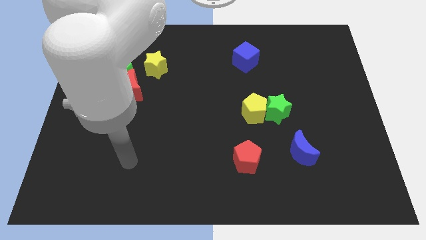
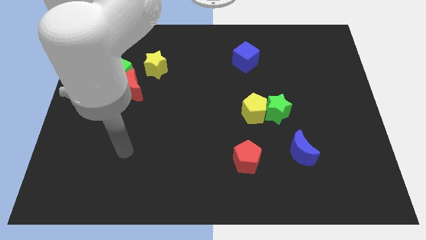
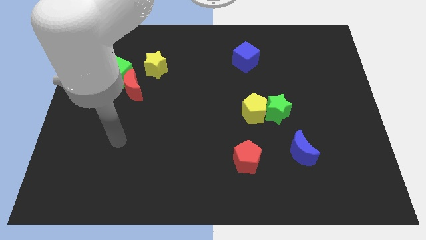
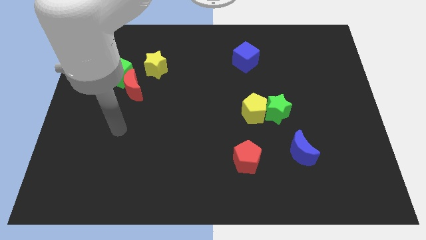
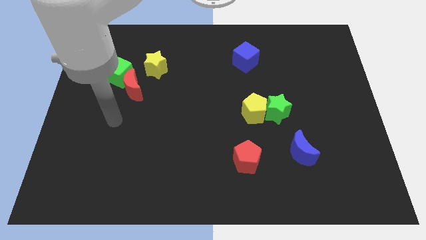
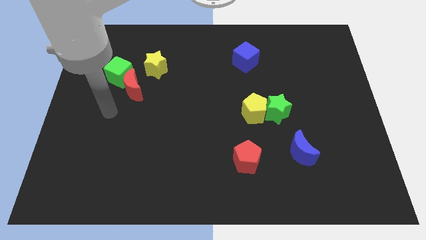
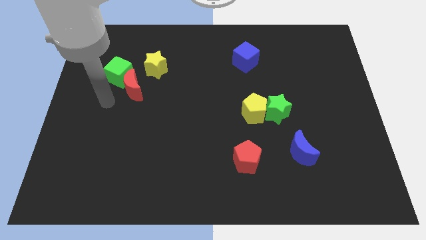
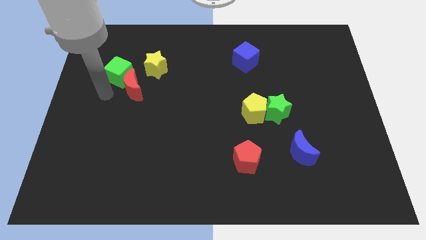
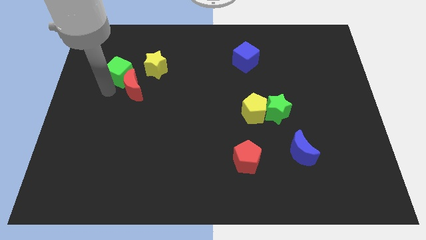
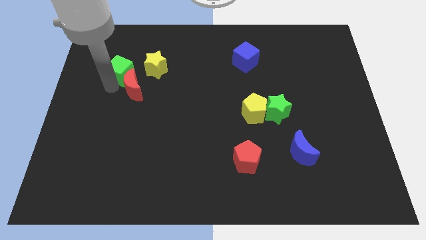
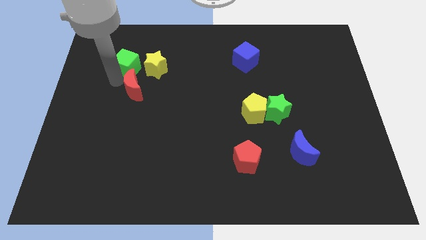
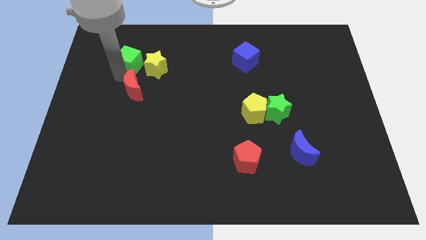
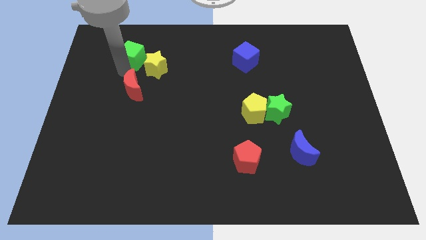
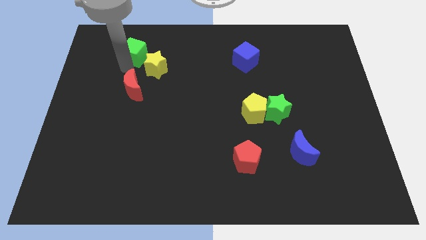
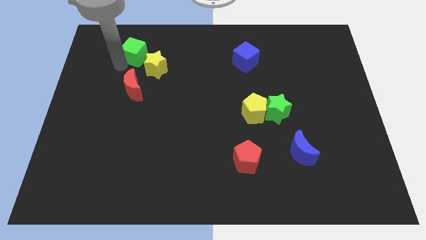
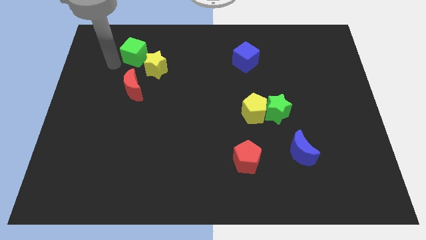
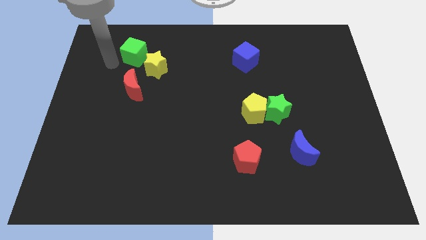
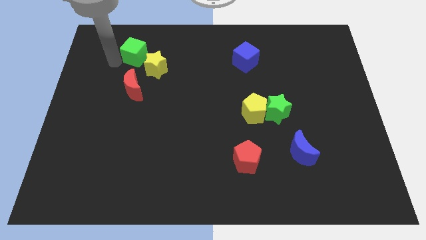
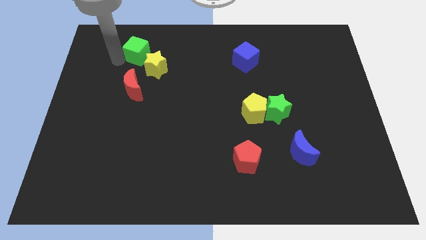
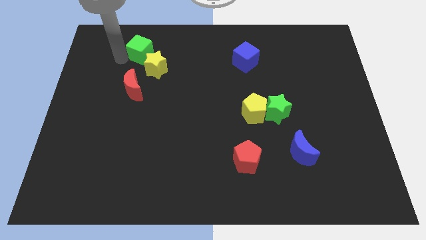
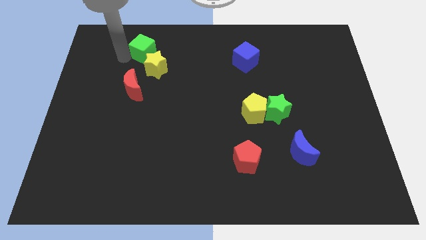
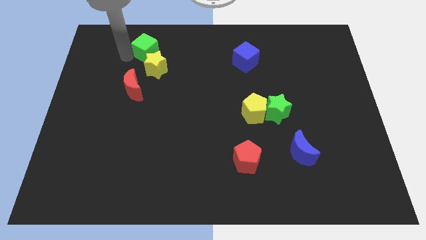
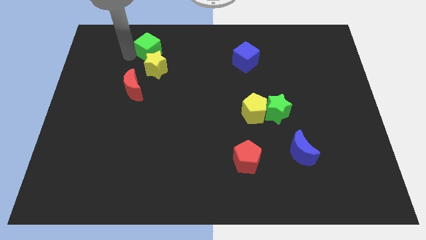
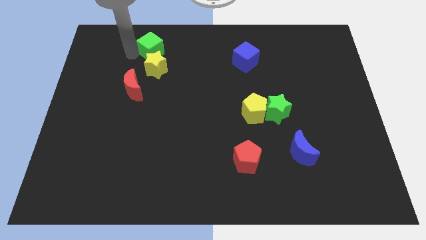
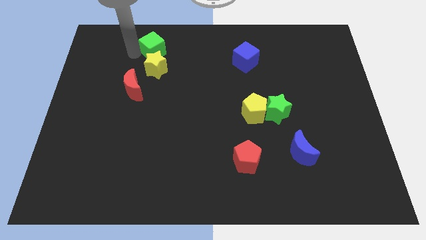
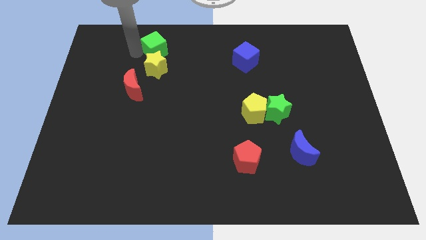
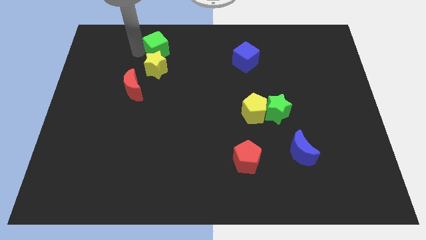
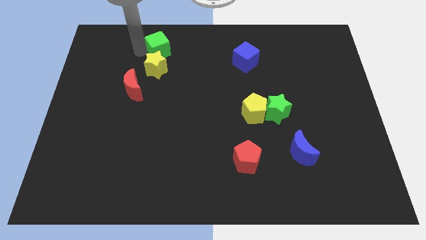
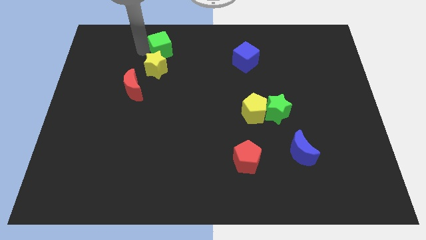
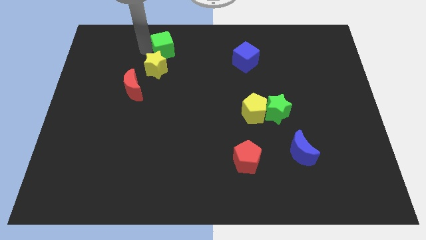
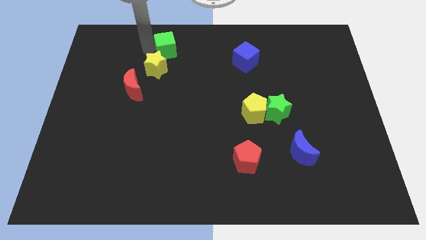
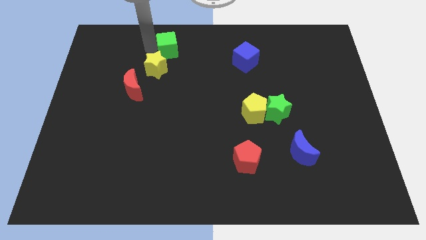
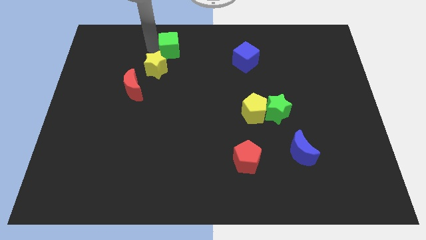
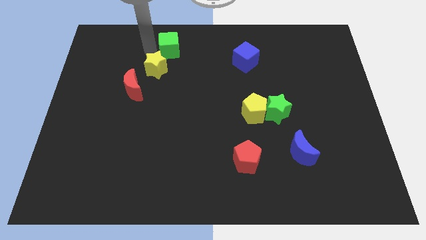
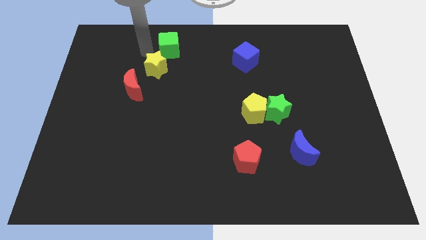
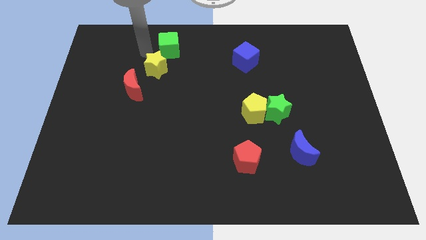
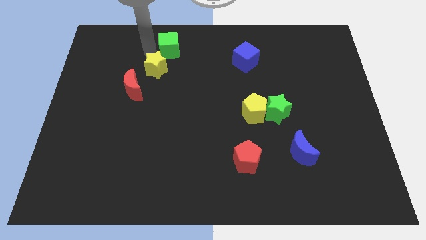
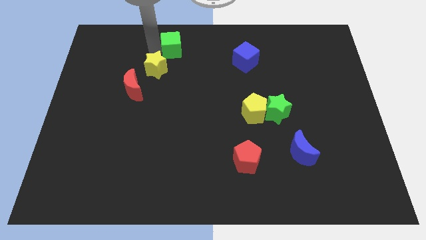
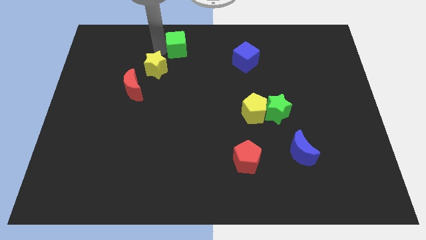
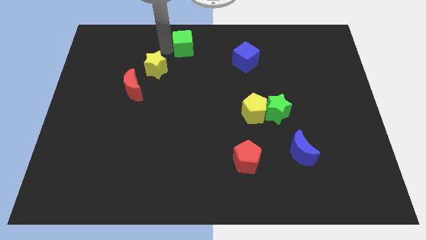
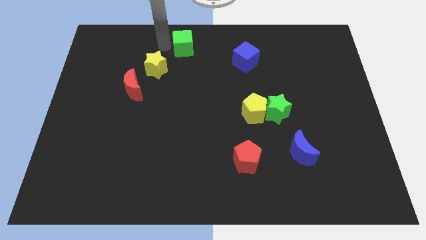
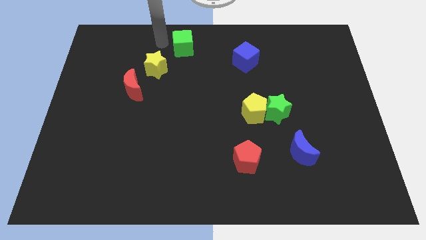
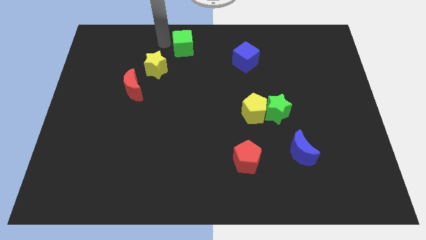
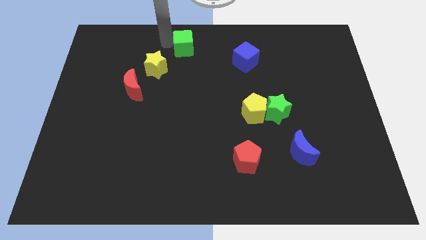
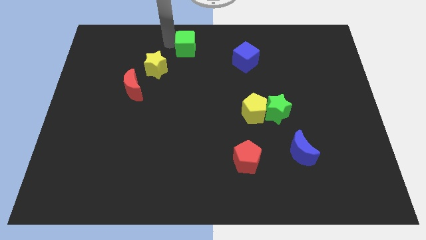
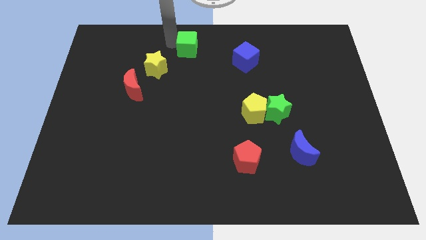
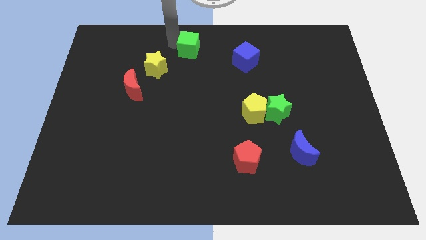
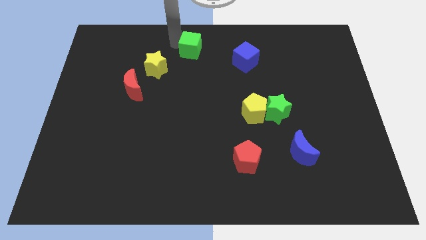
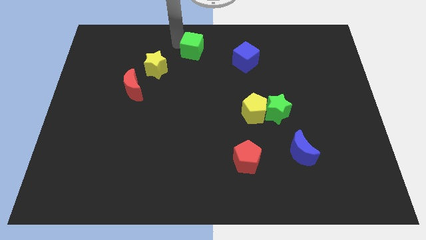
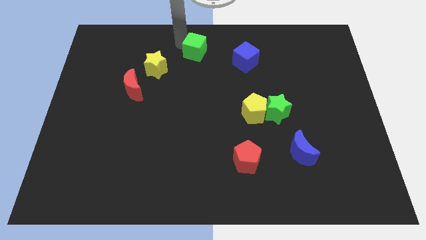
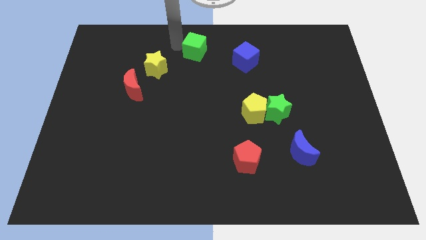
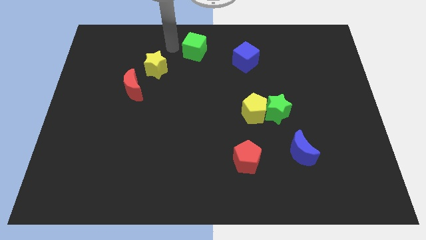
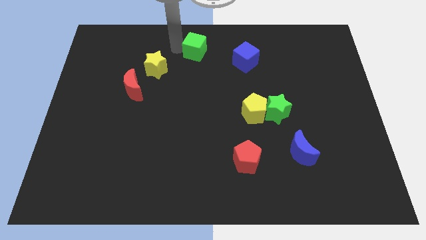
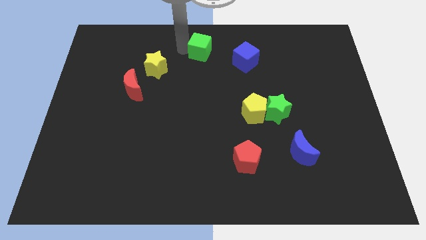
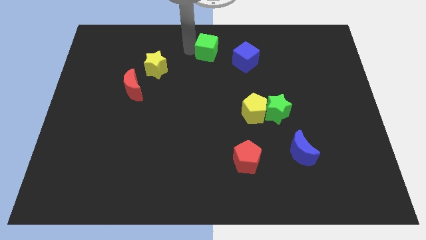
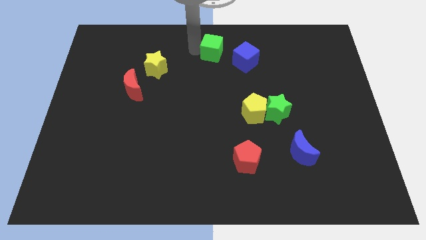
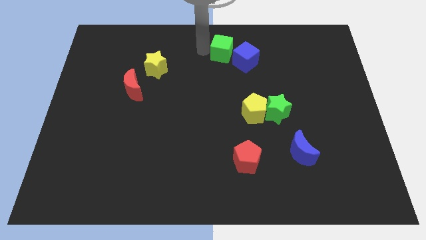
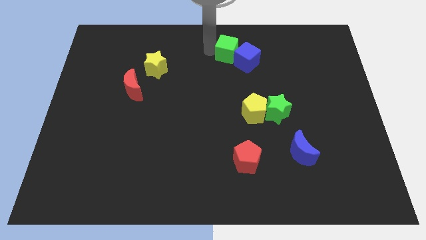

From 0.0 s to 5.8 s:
move the green cube next to the blue cube
